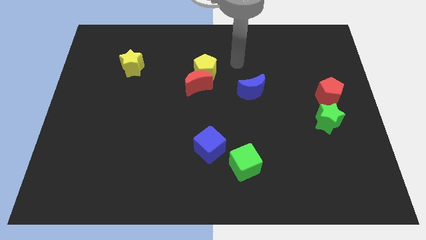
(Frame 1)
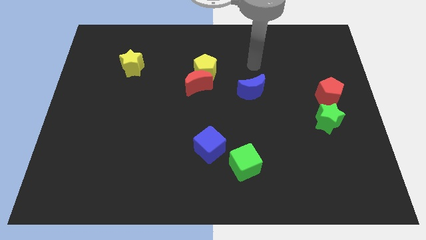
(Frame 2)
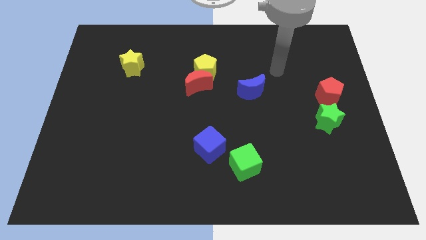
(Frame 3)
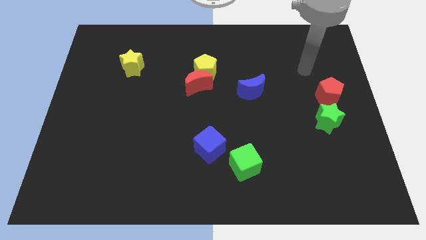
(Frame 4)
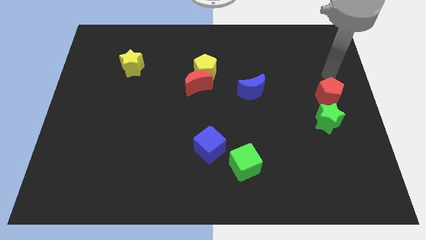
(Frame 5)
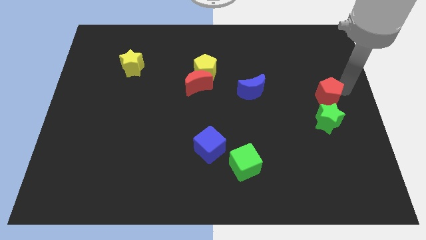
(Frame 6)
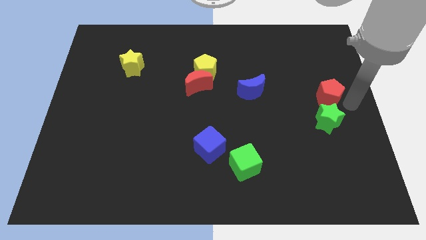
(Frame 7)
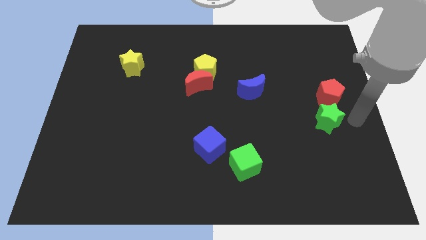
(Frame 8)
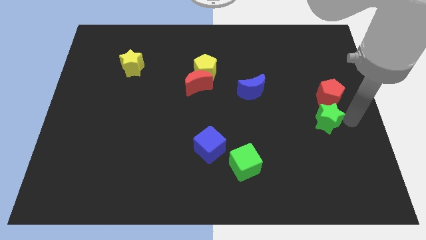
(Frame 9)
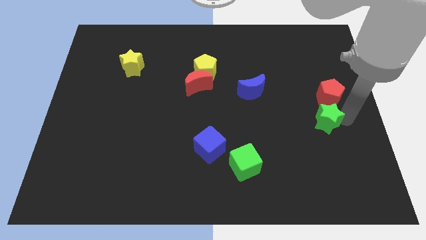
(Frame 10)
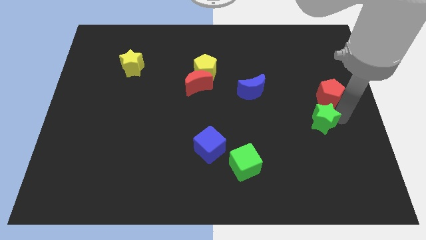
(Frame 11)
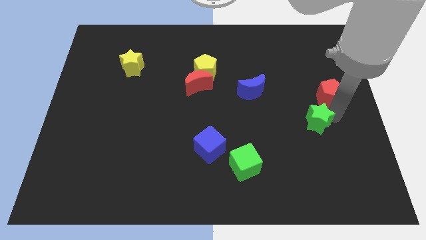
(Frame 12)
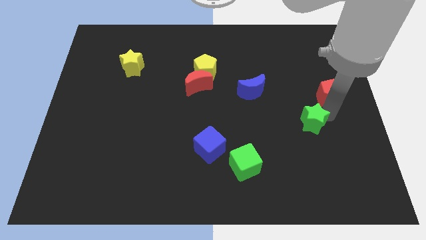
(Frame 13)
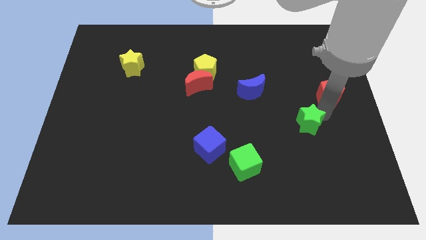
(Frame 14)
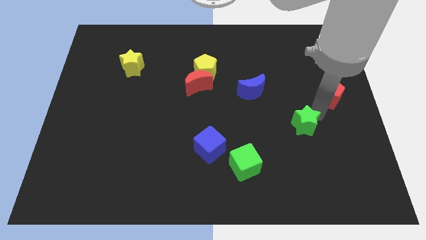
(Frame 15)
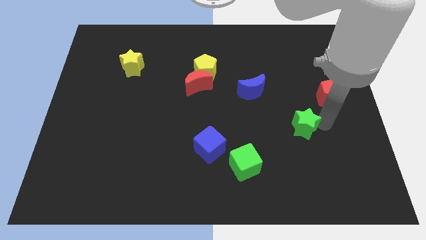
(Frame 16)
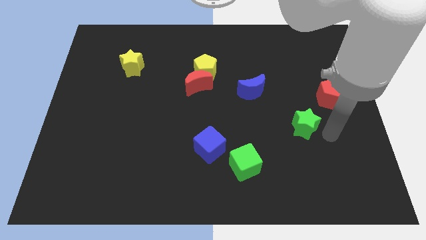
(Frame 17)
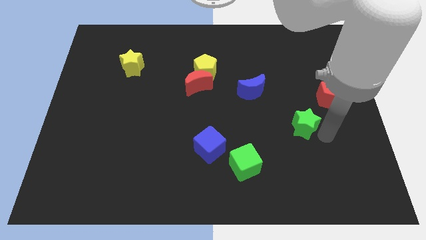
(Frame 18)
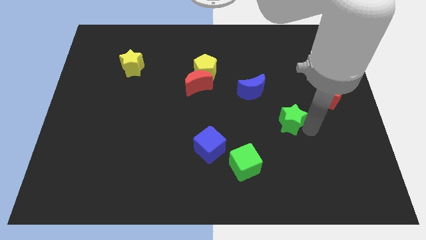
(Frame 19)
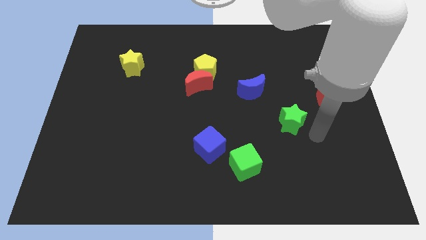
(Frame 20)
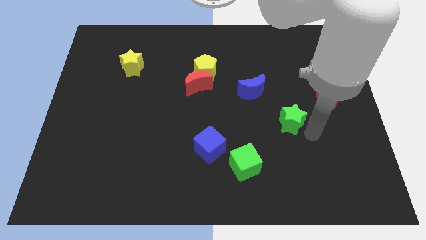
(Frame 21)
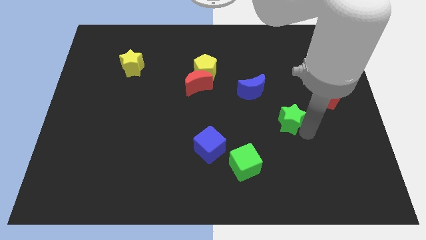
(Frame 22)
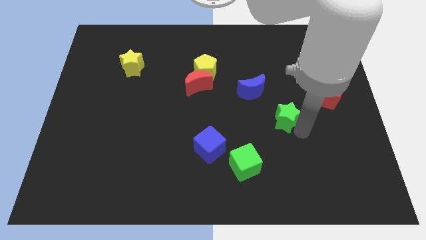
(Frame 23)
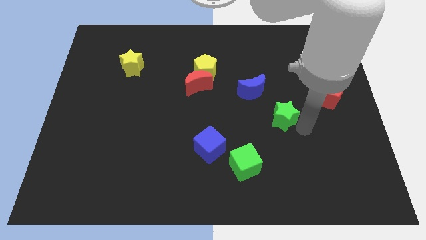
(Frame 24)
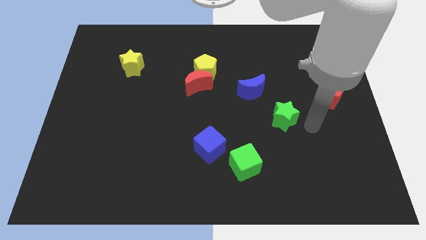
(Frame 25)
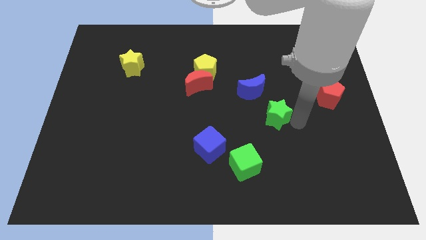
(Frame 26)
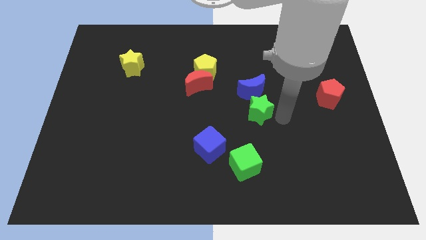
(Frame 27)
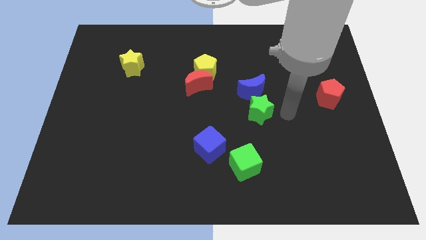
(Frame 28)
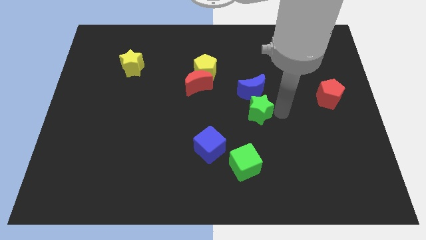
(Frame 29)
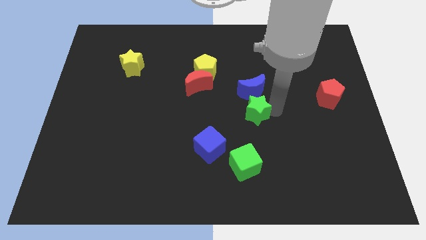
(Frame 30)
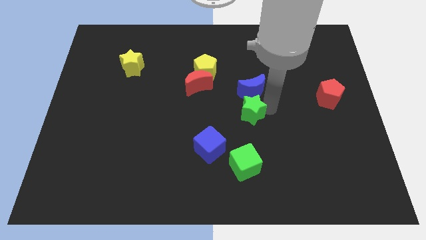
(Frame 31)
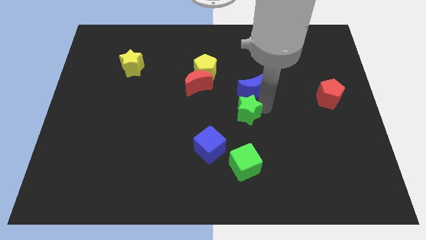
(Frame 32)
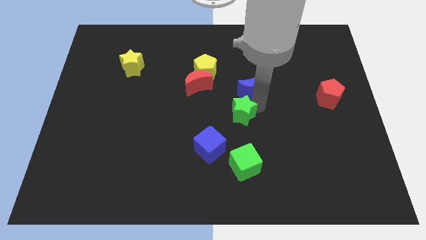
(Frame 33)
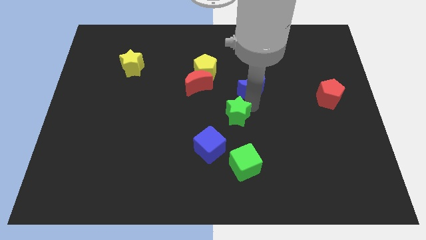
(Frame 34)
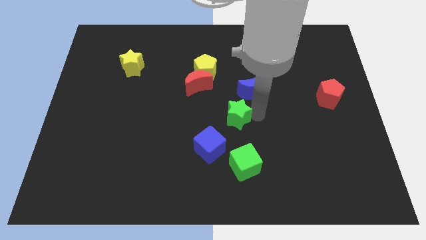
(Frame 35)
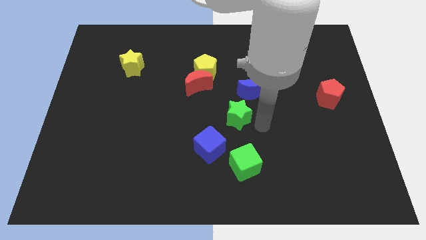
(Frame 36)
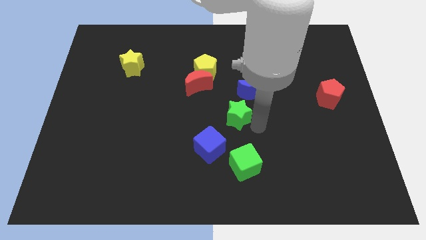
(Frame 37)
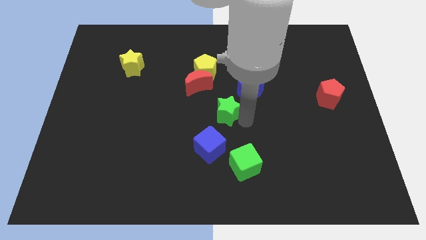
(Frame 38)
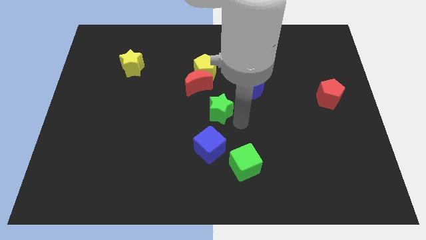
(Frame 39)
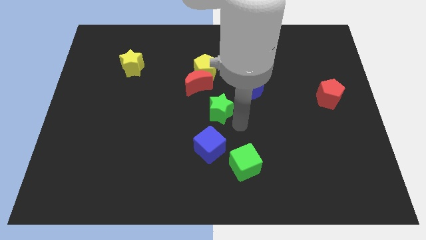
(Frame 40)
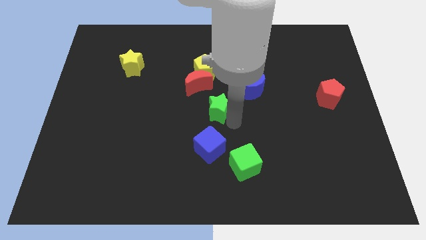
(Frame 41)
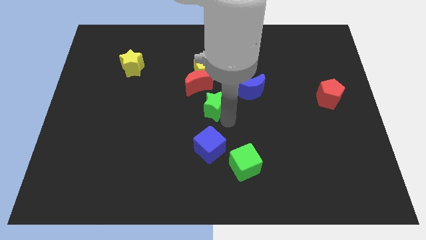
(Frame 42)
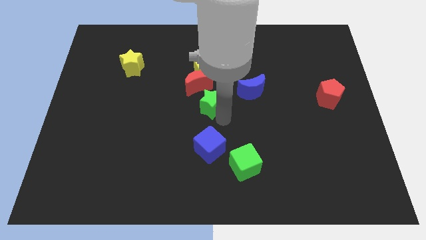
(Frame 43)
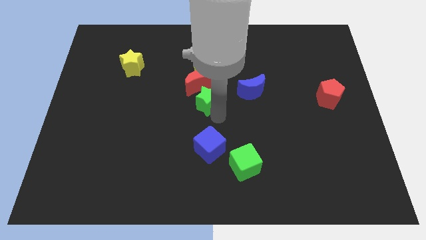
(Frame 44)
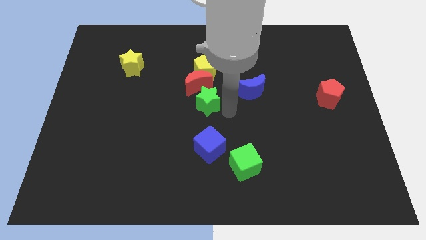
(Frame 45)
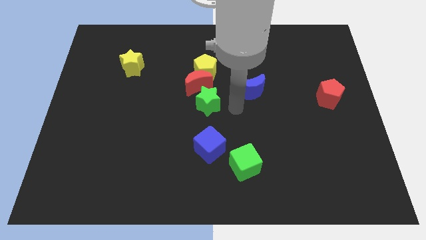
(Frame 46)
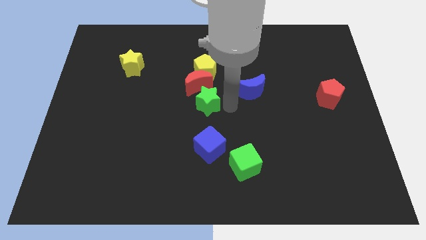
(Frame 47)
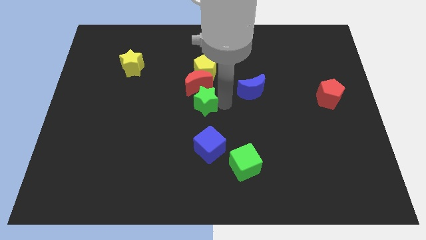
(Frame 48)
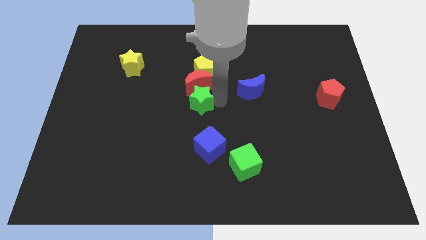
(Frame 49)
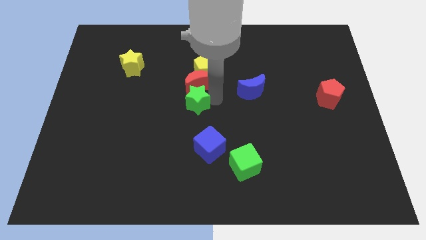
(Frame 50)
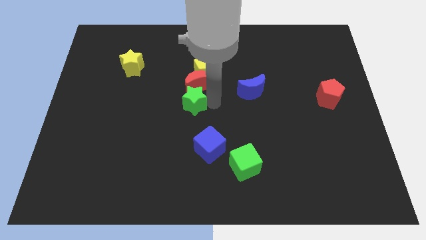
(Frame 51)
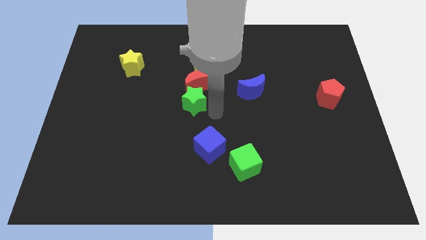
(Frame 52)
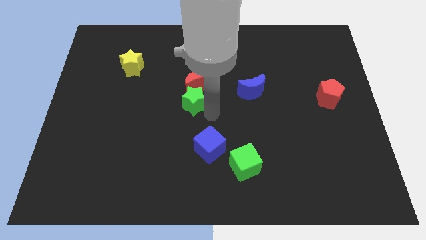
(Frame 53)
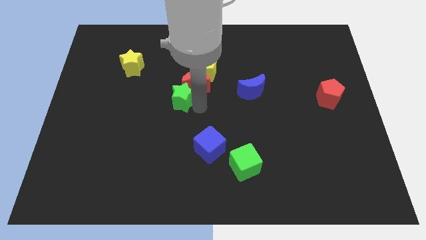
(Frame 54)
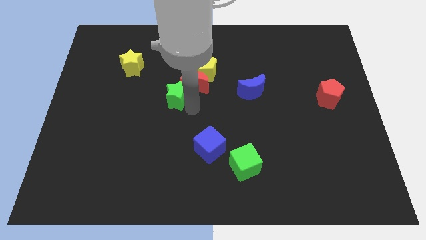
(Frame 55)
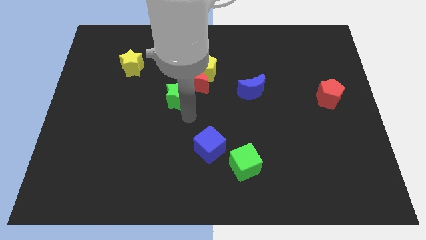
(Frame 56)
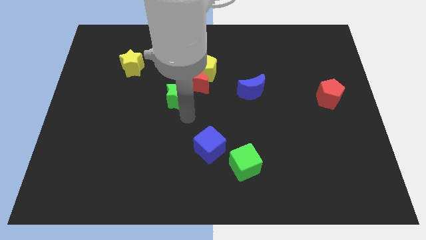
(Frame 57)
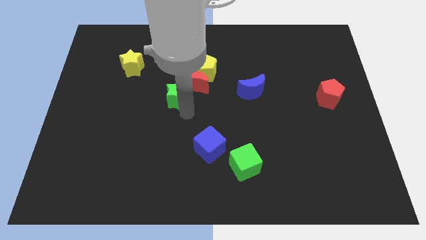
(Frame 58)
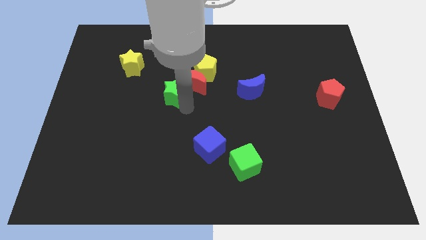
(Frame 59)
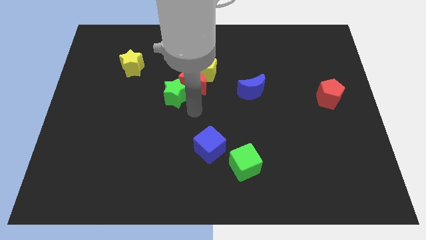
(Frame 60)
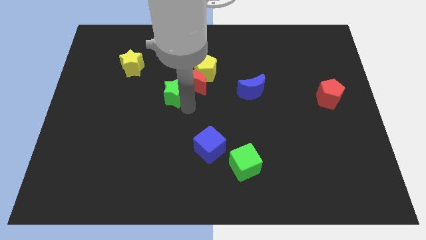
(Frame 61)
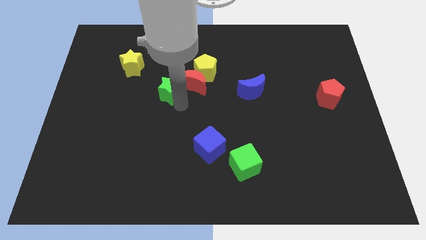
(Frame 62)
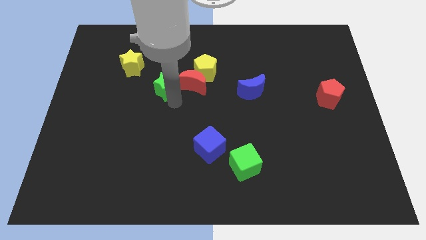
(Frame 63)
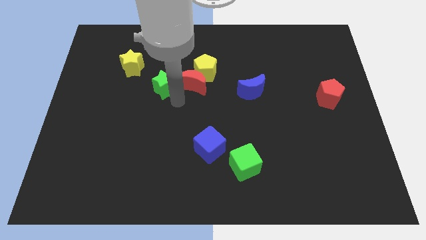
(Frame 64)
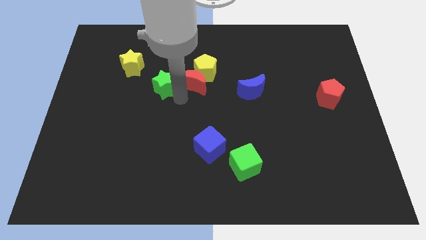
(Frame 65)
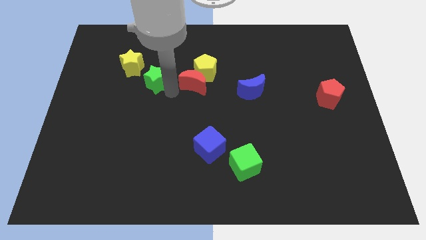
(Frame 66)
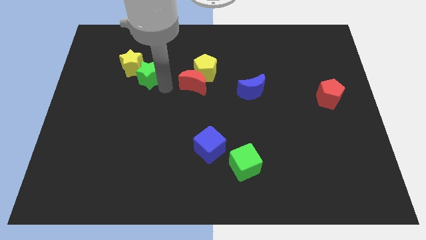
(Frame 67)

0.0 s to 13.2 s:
push the green star to the yellow star

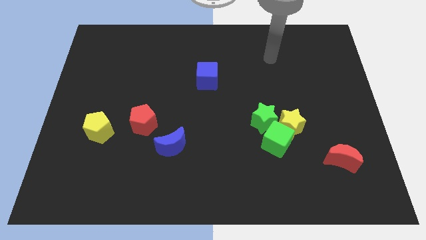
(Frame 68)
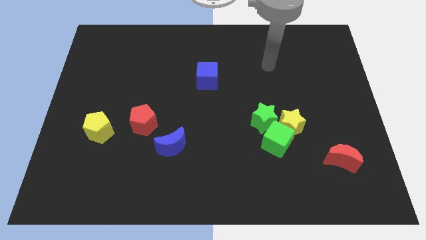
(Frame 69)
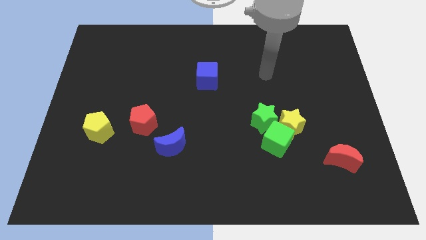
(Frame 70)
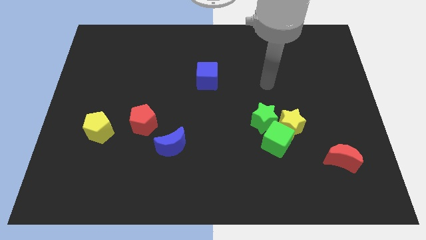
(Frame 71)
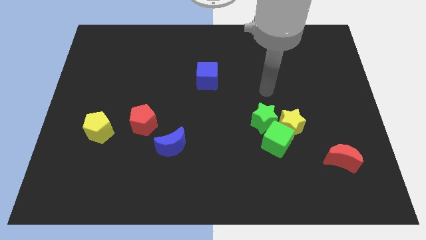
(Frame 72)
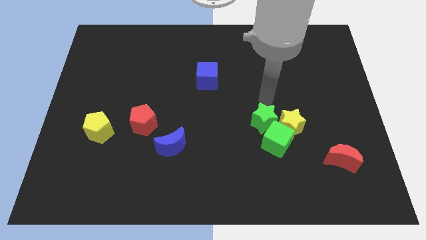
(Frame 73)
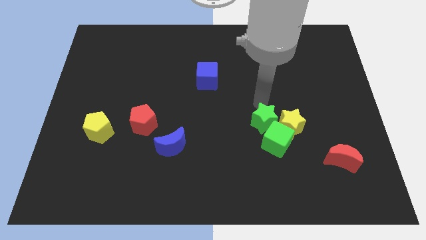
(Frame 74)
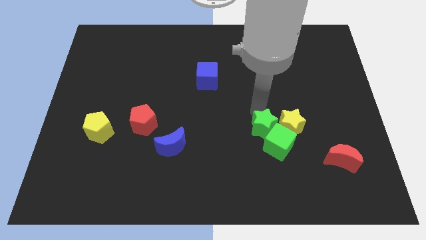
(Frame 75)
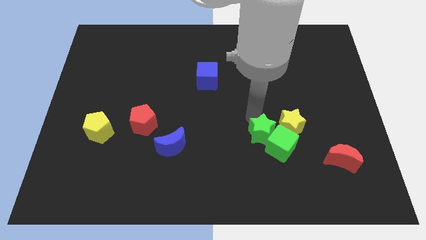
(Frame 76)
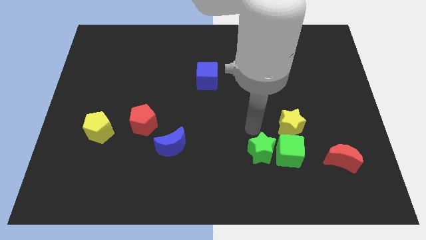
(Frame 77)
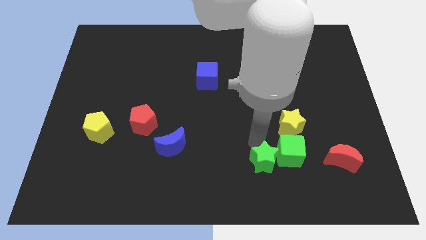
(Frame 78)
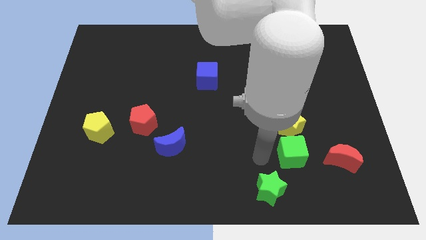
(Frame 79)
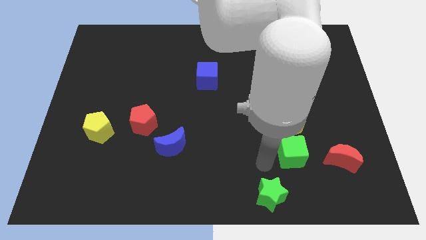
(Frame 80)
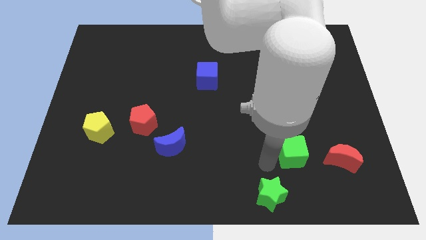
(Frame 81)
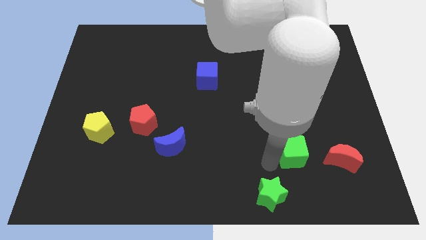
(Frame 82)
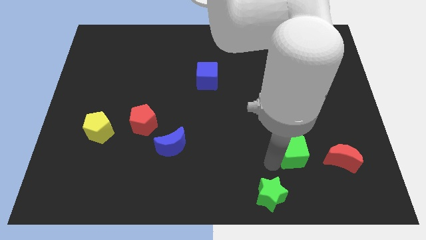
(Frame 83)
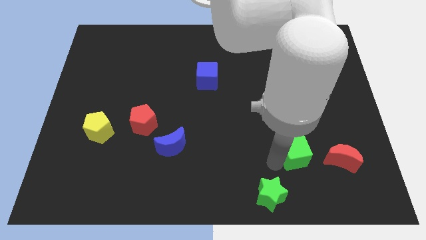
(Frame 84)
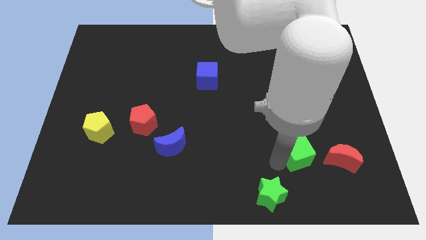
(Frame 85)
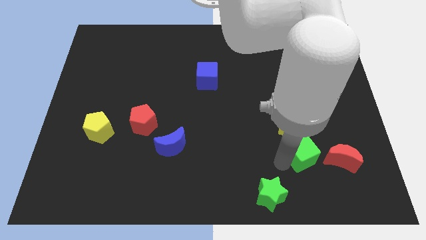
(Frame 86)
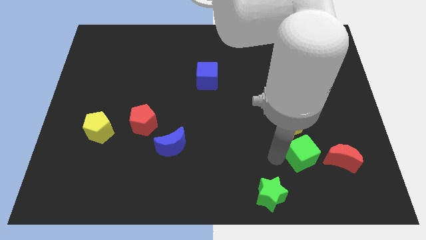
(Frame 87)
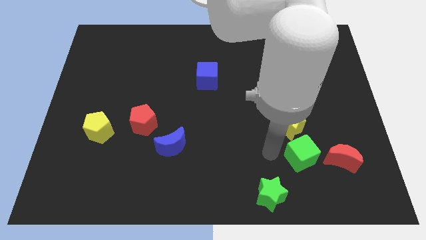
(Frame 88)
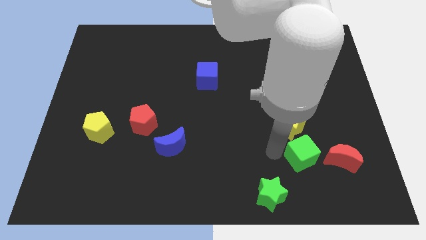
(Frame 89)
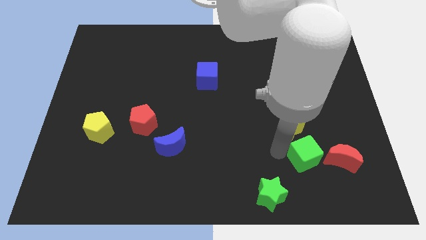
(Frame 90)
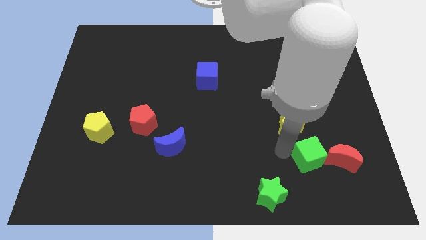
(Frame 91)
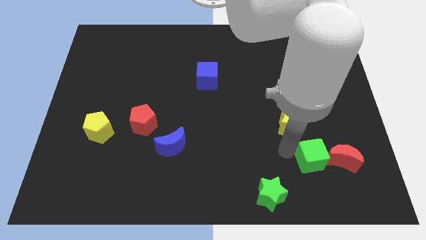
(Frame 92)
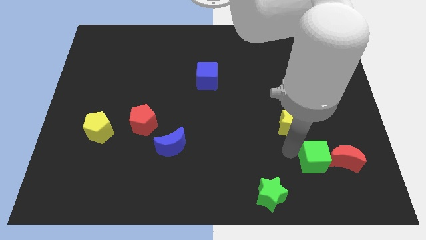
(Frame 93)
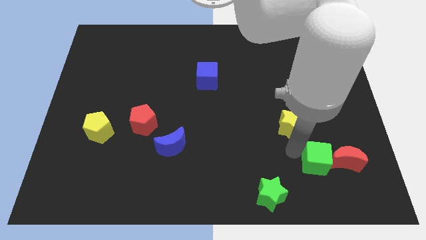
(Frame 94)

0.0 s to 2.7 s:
move the green cube next to the red moon
